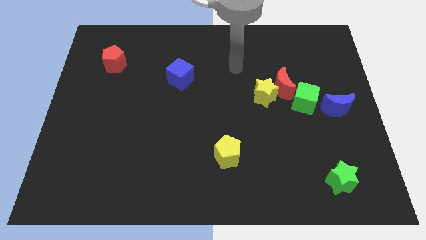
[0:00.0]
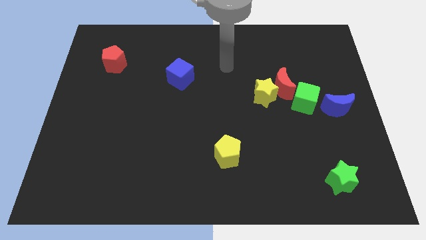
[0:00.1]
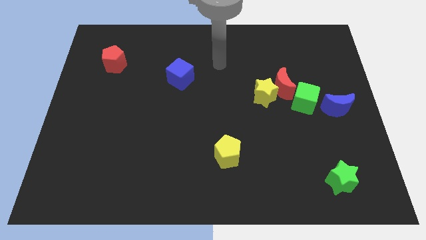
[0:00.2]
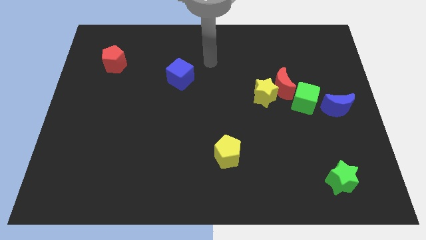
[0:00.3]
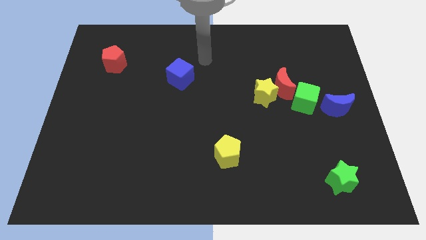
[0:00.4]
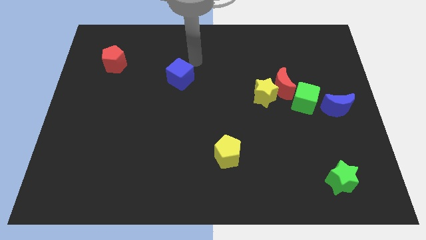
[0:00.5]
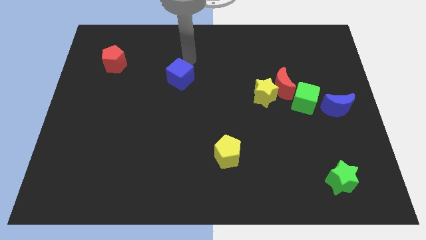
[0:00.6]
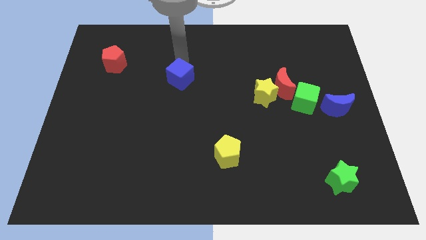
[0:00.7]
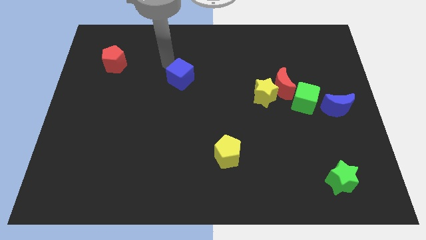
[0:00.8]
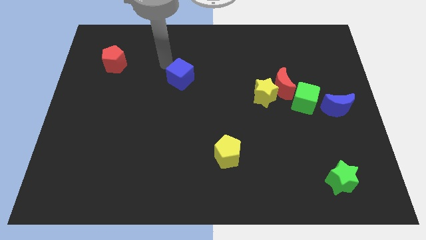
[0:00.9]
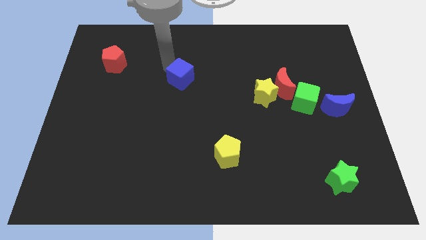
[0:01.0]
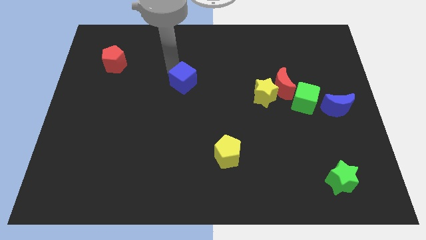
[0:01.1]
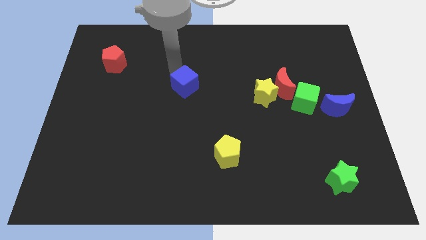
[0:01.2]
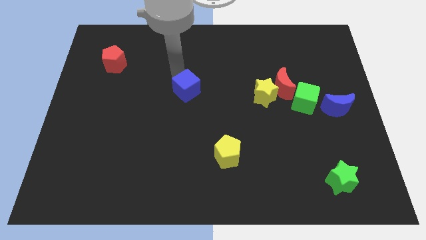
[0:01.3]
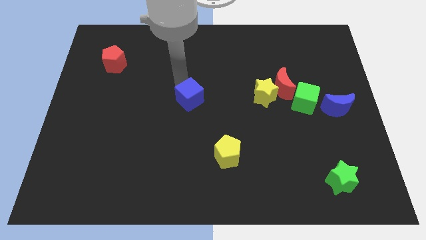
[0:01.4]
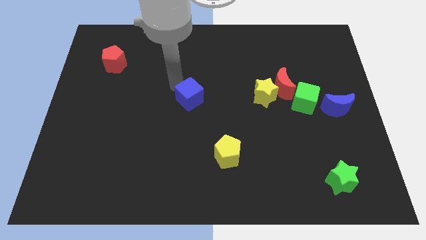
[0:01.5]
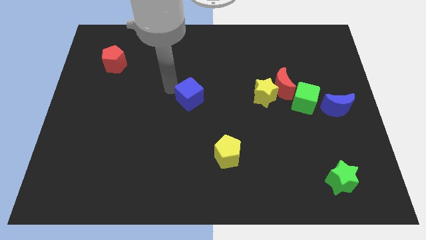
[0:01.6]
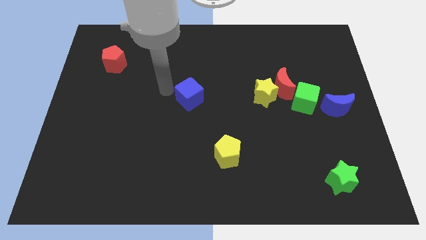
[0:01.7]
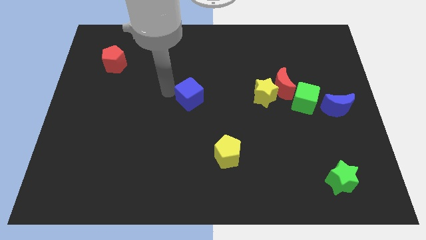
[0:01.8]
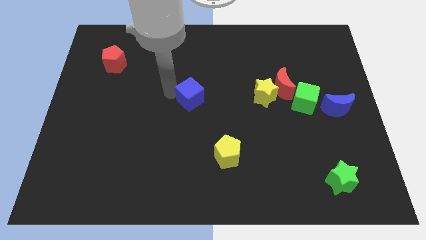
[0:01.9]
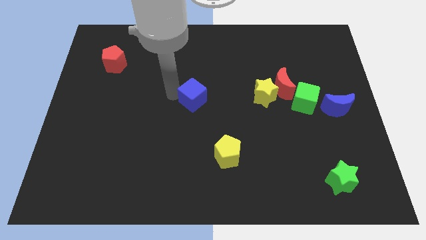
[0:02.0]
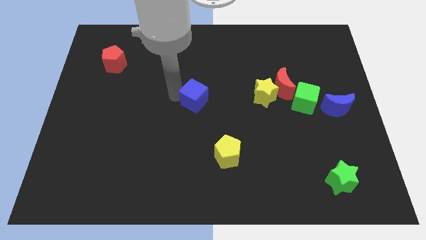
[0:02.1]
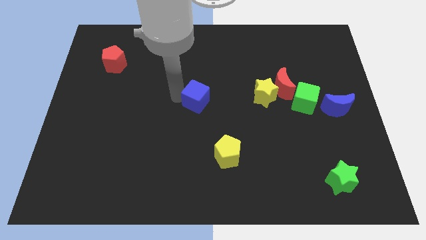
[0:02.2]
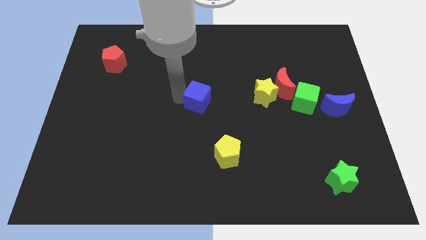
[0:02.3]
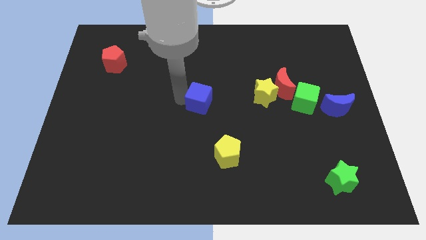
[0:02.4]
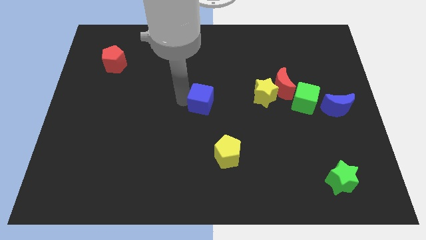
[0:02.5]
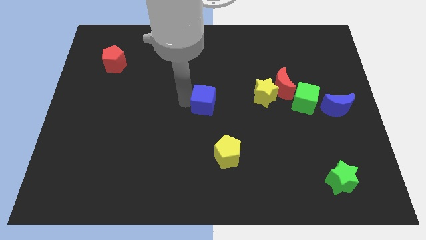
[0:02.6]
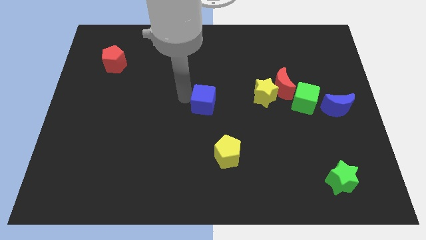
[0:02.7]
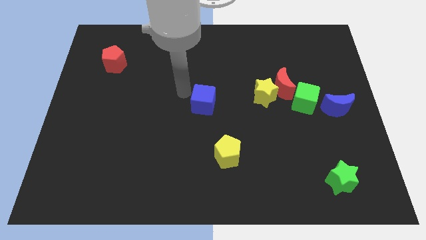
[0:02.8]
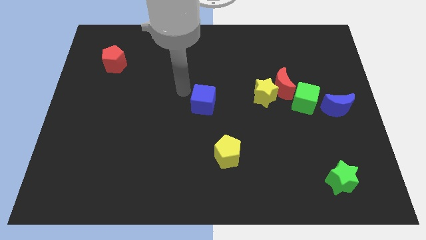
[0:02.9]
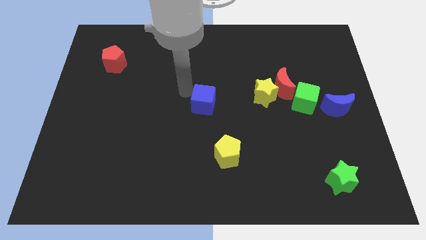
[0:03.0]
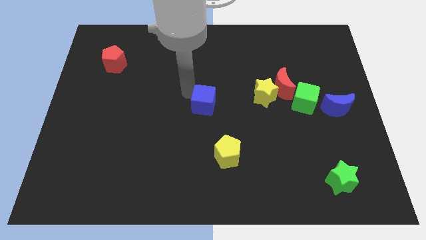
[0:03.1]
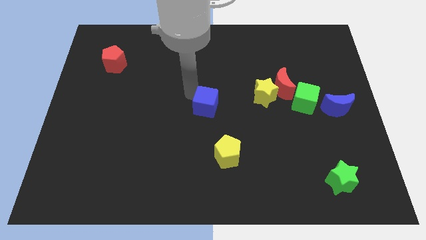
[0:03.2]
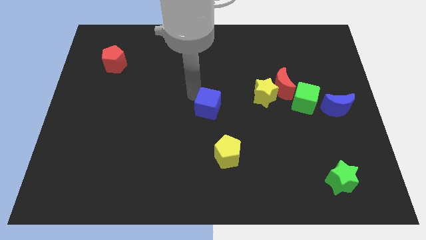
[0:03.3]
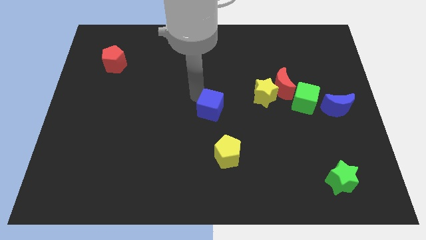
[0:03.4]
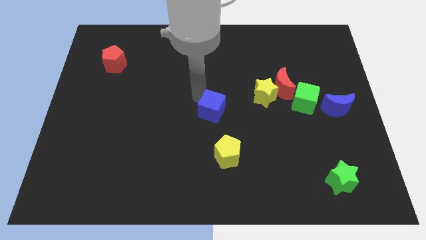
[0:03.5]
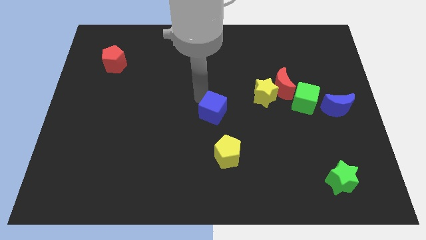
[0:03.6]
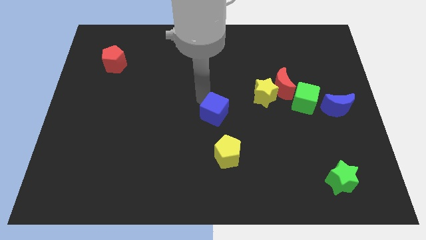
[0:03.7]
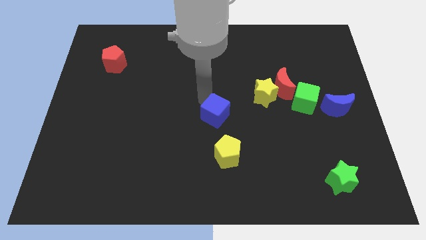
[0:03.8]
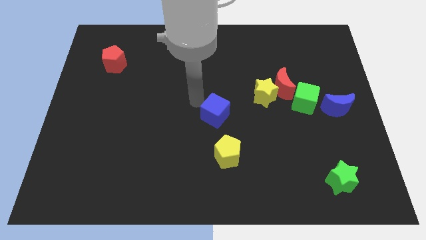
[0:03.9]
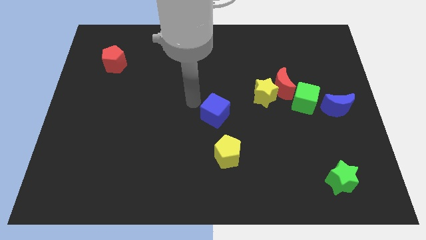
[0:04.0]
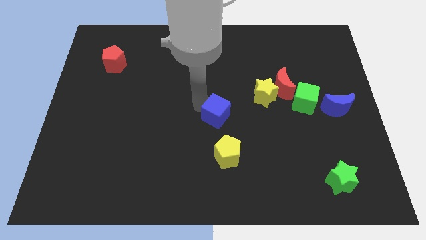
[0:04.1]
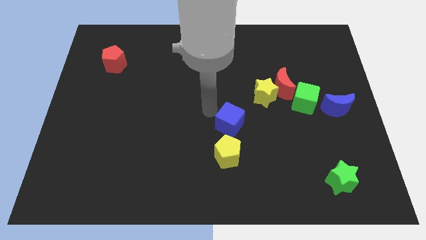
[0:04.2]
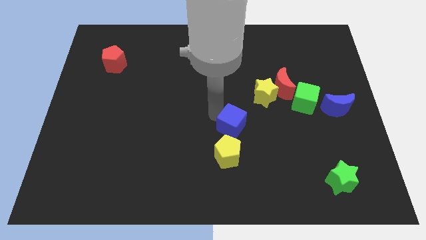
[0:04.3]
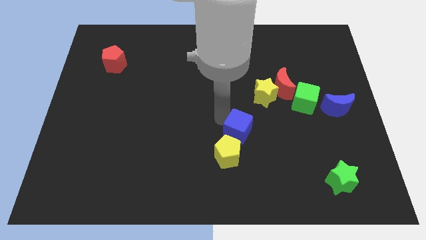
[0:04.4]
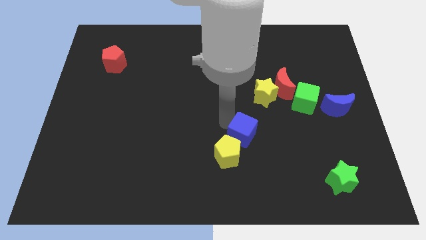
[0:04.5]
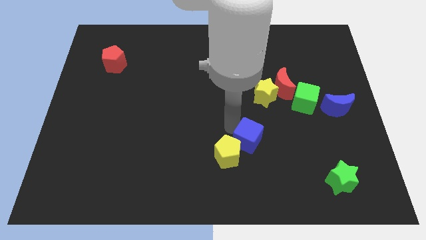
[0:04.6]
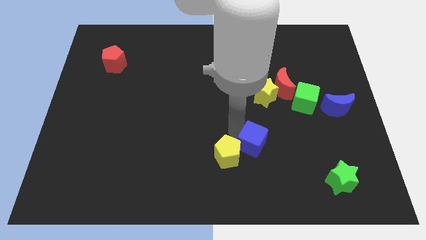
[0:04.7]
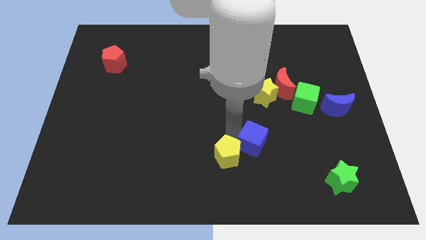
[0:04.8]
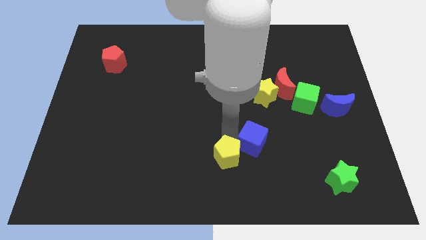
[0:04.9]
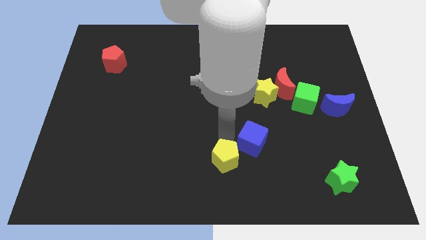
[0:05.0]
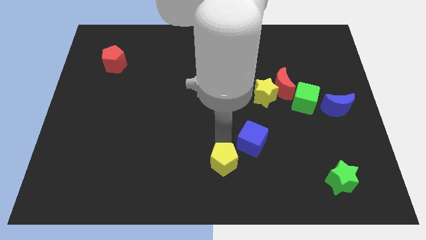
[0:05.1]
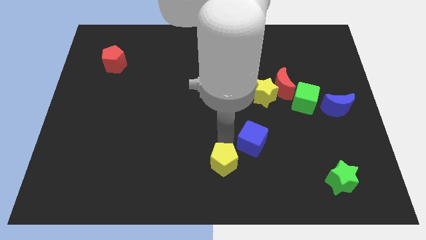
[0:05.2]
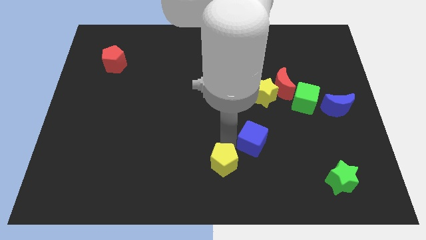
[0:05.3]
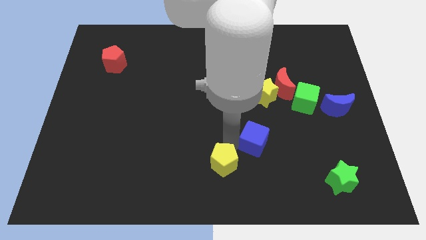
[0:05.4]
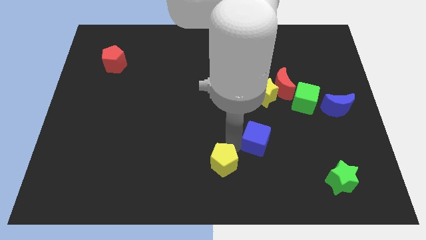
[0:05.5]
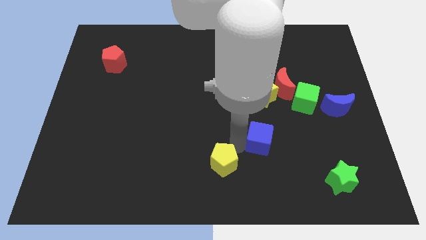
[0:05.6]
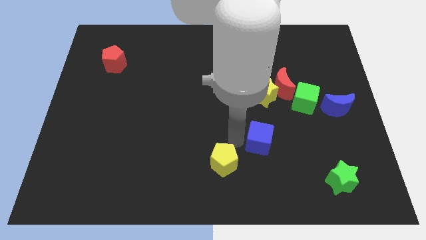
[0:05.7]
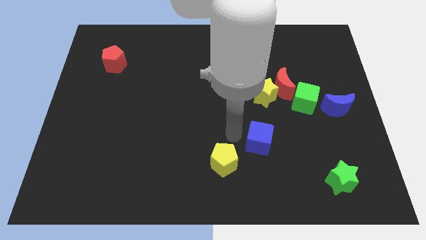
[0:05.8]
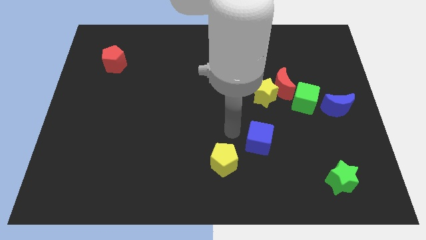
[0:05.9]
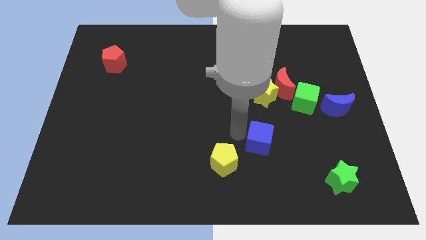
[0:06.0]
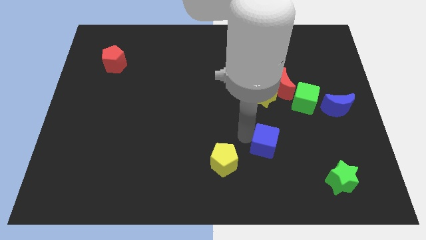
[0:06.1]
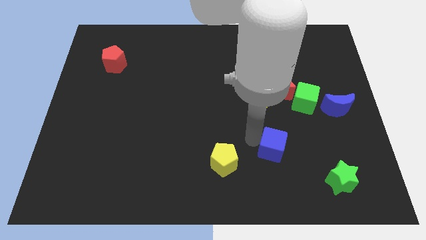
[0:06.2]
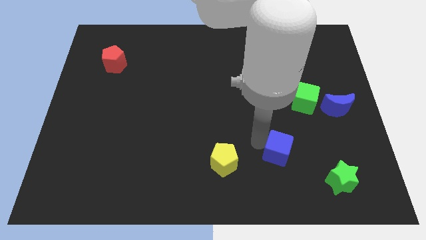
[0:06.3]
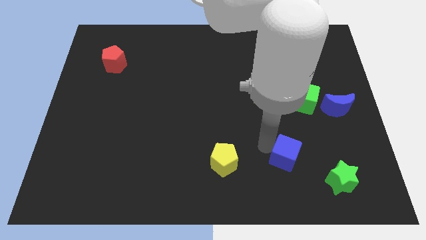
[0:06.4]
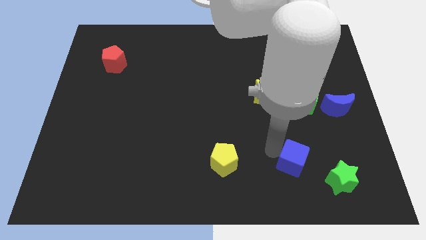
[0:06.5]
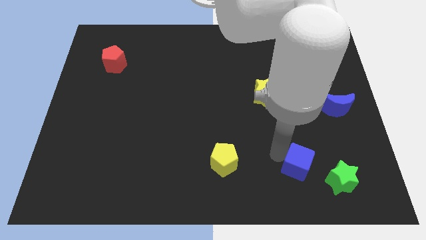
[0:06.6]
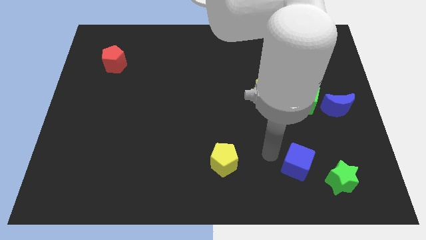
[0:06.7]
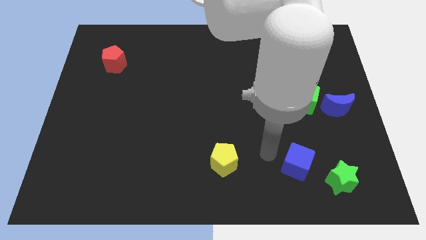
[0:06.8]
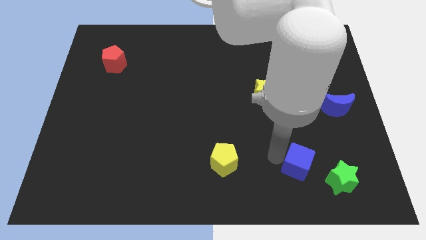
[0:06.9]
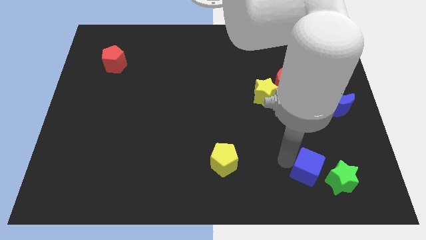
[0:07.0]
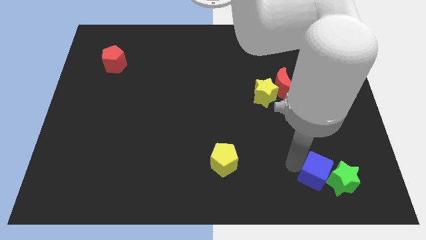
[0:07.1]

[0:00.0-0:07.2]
put the blue cube next to the green star
